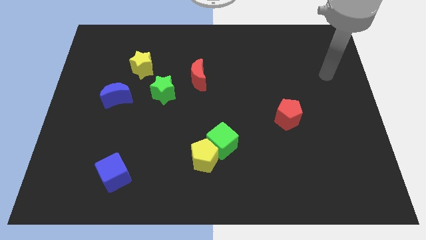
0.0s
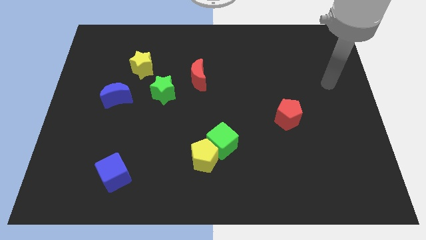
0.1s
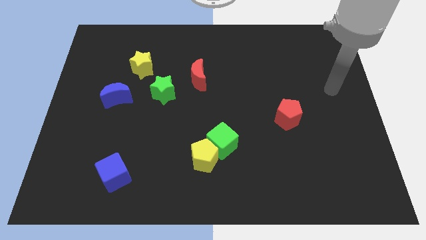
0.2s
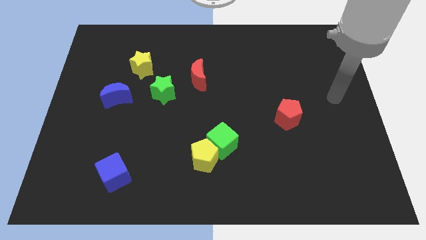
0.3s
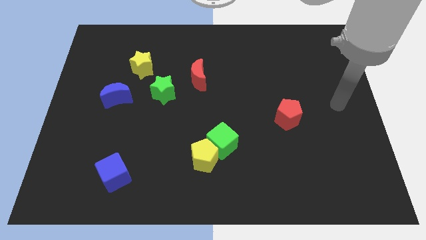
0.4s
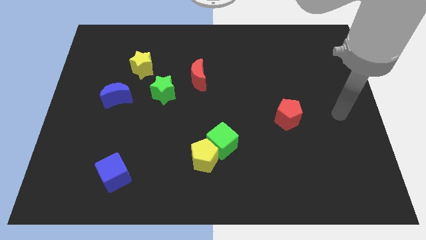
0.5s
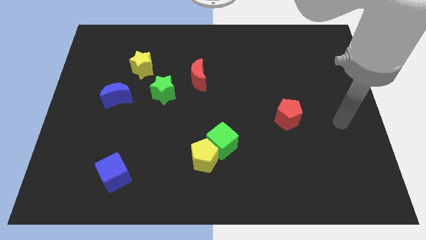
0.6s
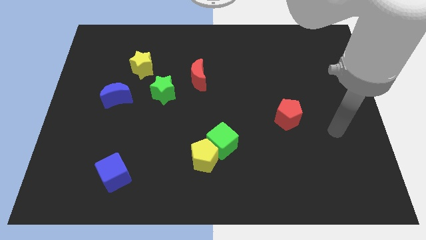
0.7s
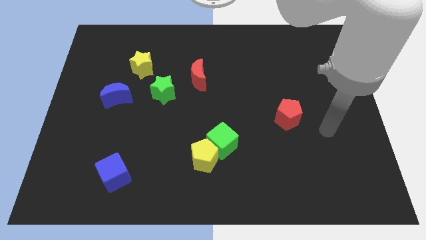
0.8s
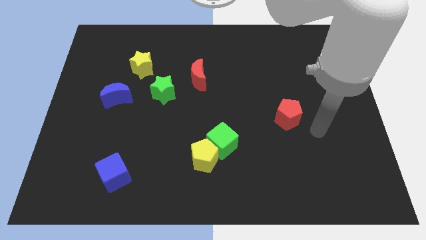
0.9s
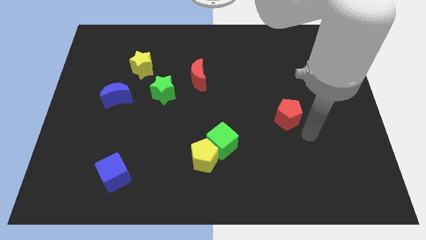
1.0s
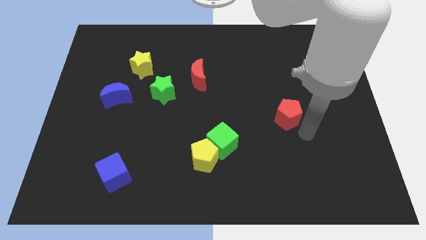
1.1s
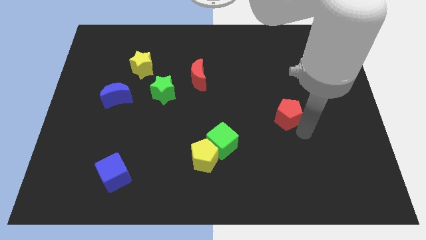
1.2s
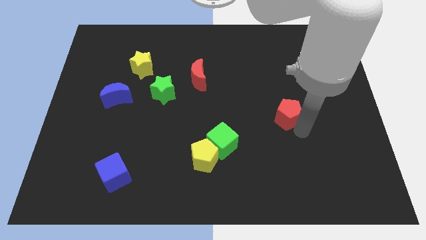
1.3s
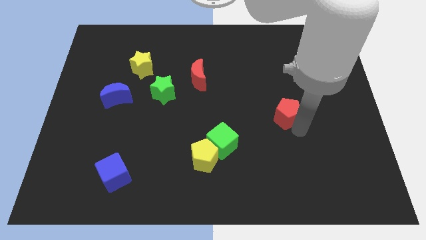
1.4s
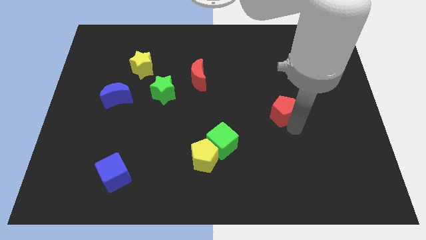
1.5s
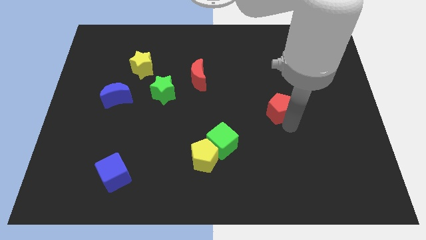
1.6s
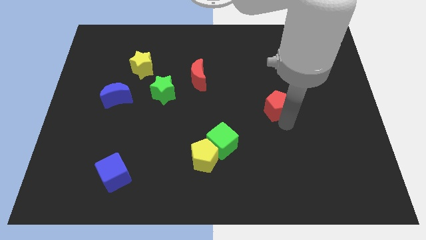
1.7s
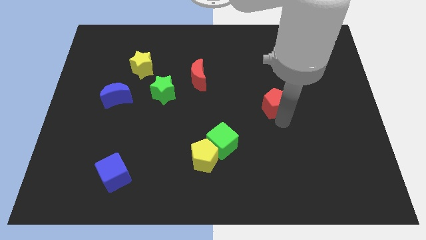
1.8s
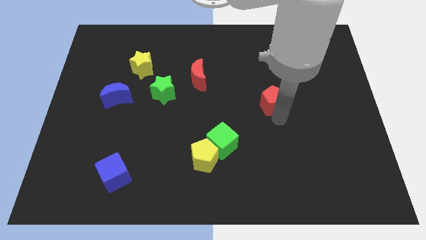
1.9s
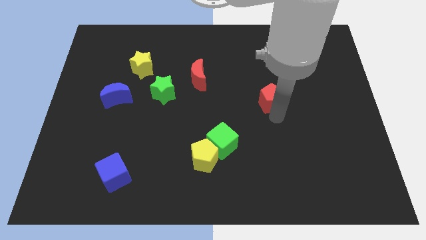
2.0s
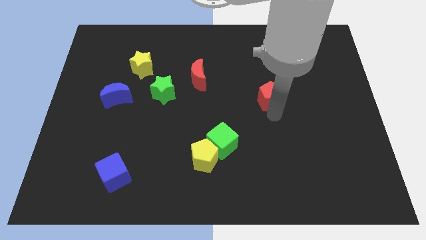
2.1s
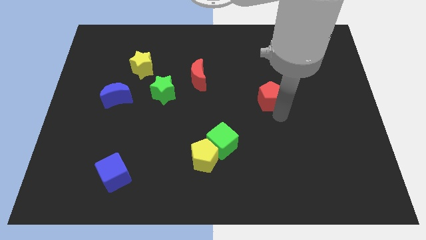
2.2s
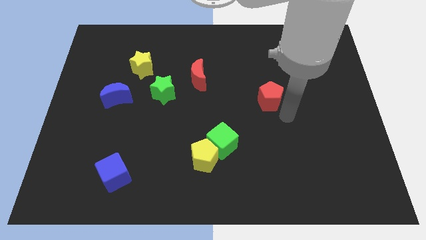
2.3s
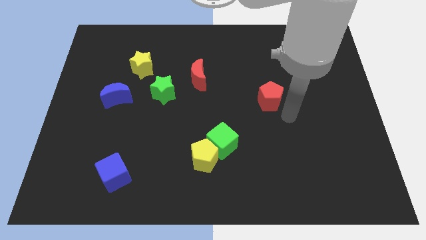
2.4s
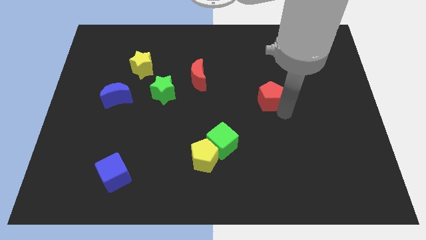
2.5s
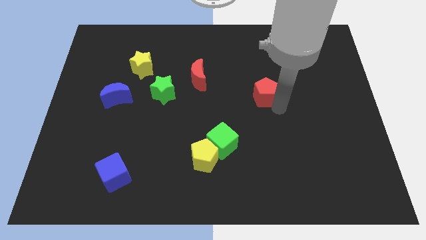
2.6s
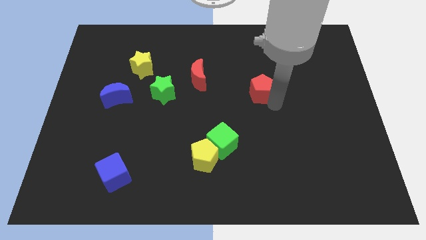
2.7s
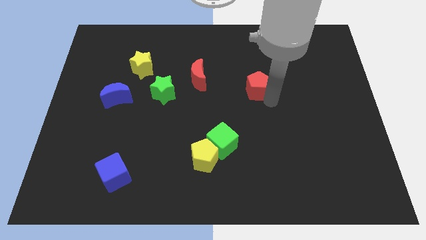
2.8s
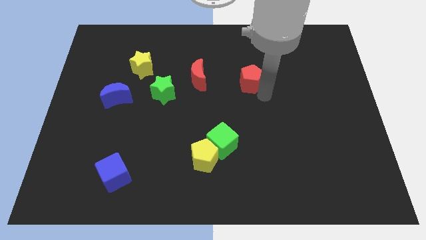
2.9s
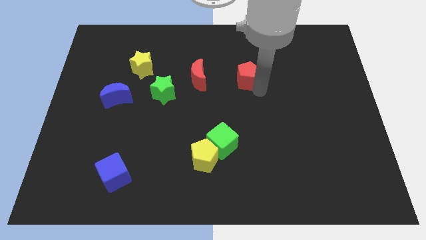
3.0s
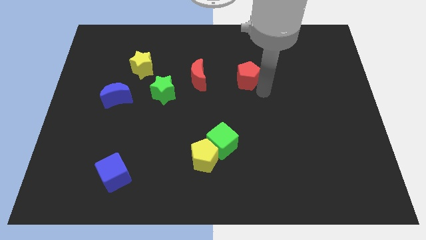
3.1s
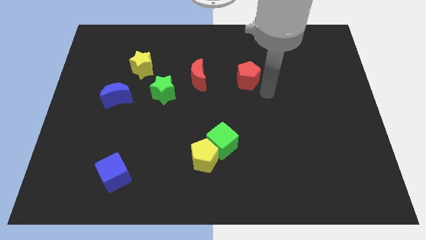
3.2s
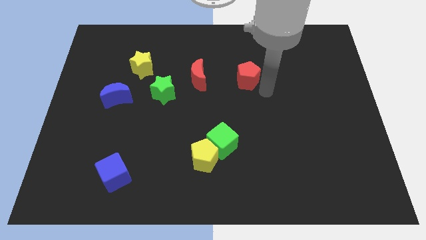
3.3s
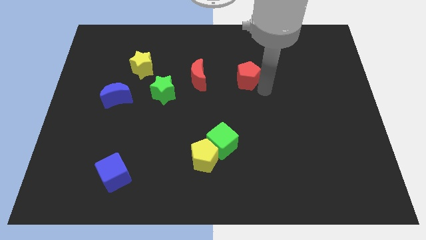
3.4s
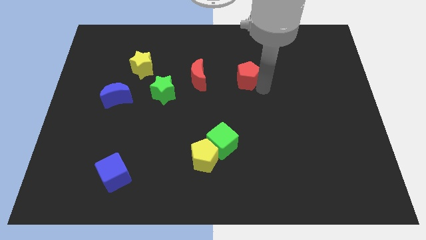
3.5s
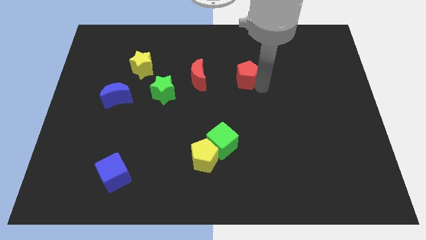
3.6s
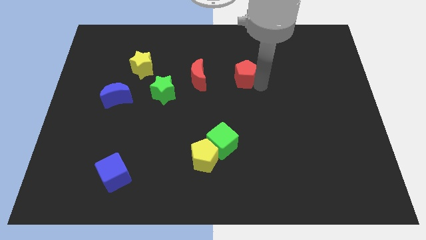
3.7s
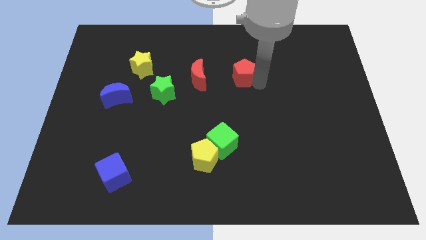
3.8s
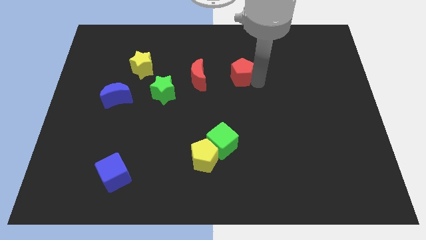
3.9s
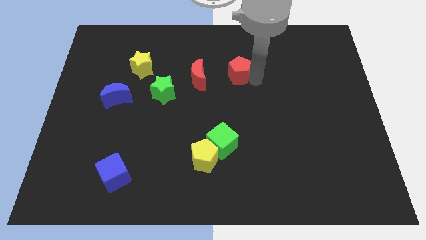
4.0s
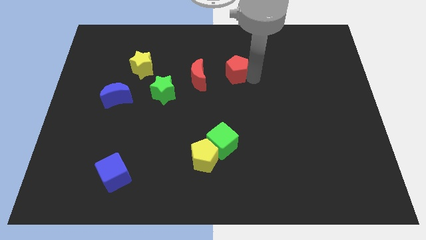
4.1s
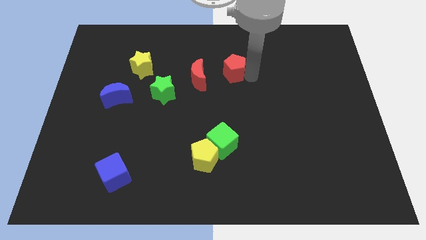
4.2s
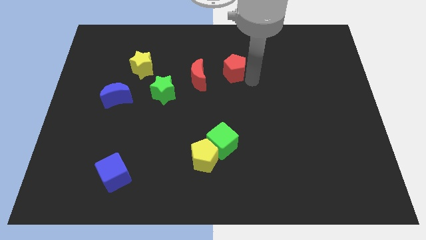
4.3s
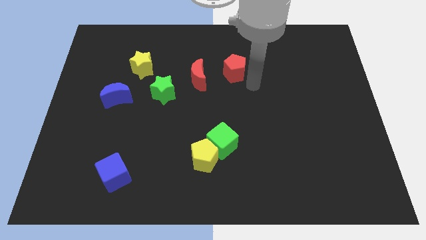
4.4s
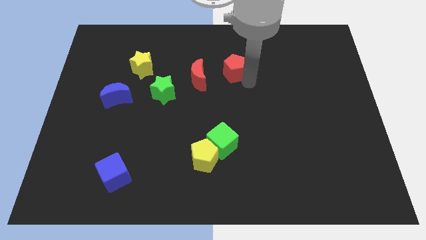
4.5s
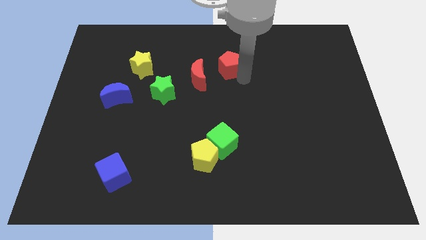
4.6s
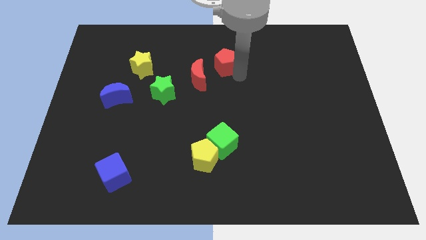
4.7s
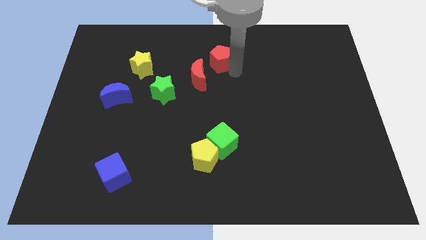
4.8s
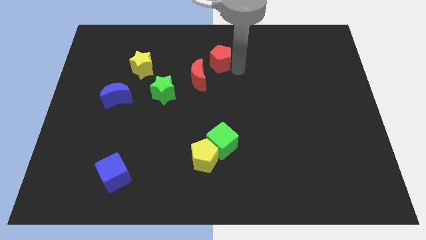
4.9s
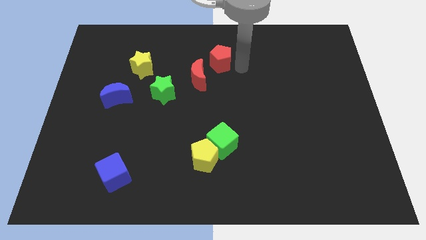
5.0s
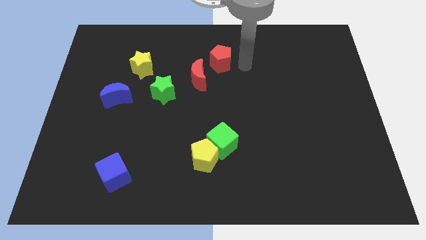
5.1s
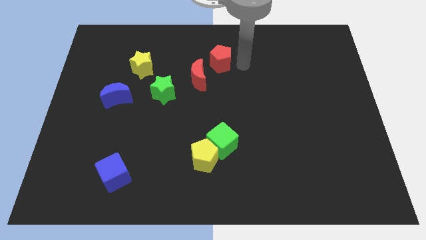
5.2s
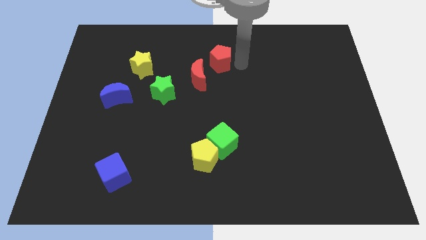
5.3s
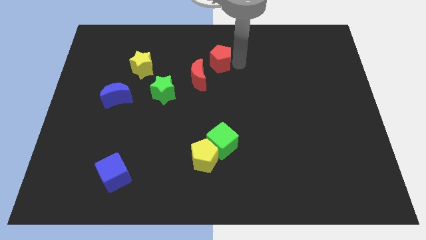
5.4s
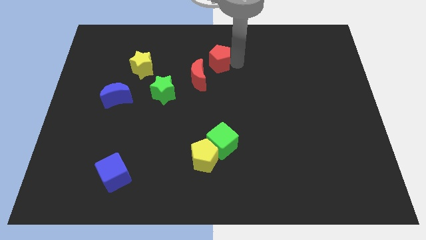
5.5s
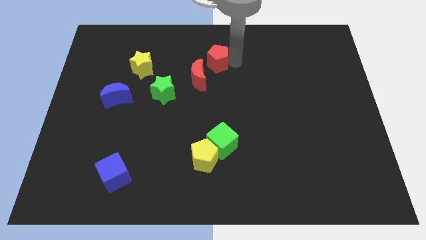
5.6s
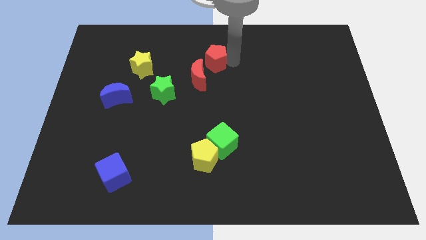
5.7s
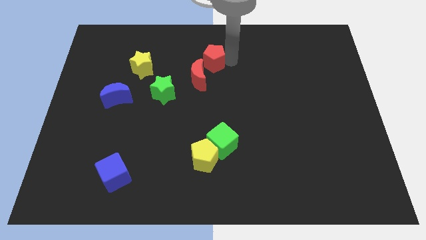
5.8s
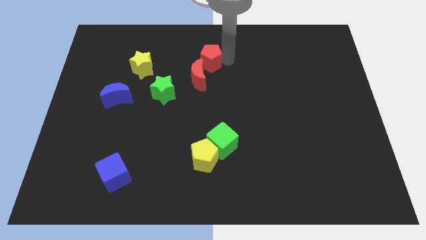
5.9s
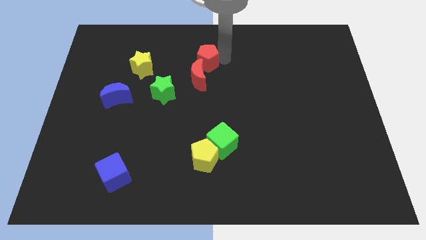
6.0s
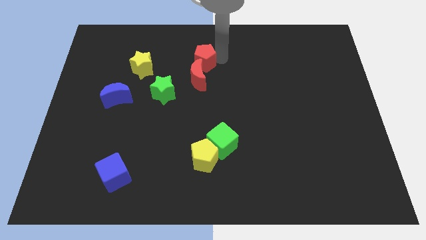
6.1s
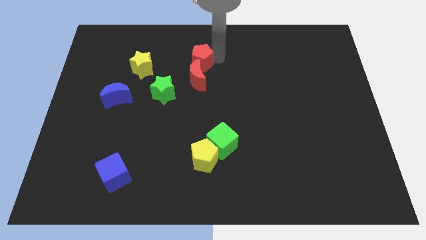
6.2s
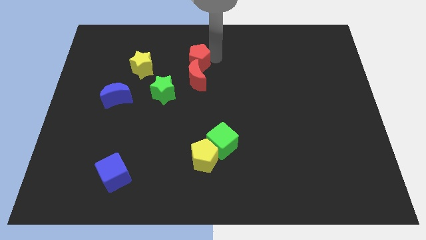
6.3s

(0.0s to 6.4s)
push the red pentagon to the top left of the red moon
